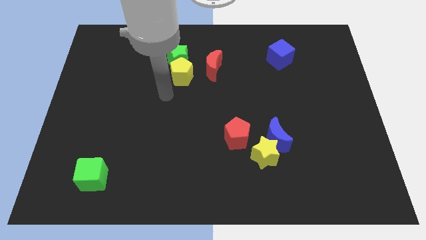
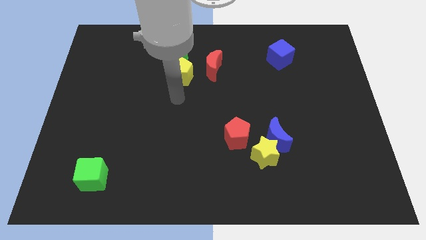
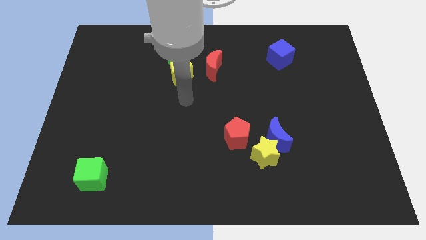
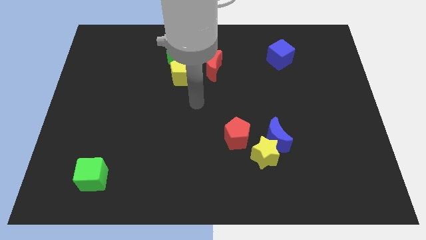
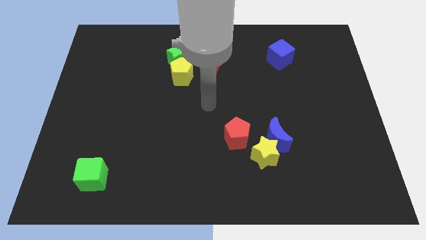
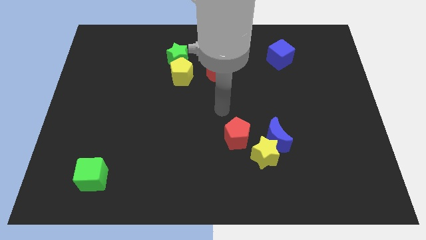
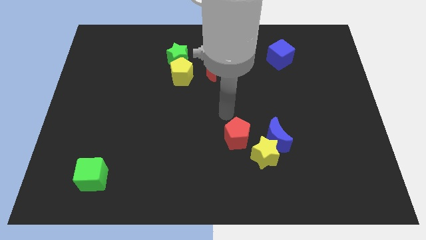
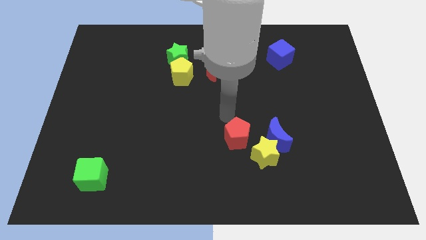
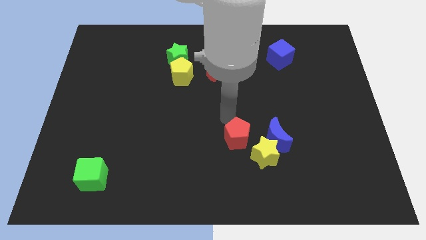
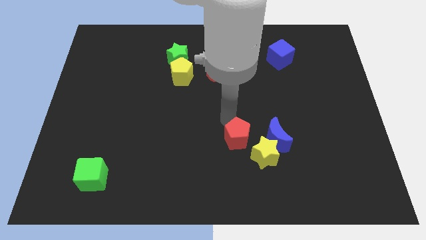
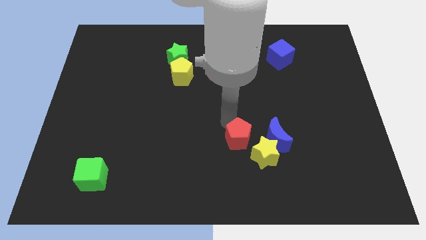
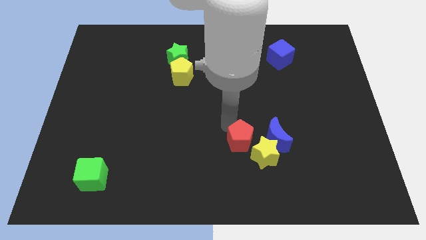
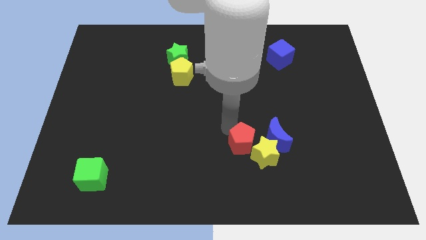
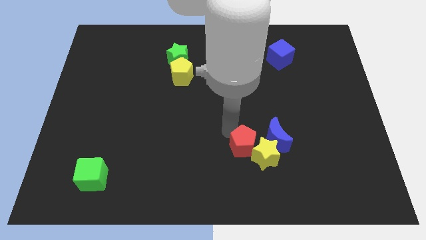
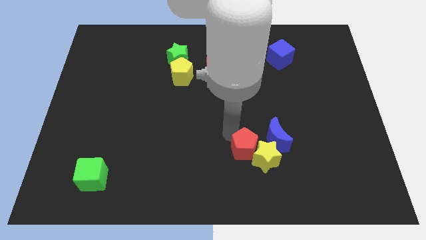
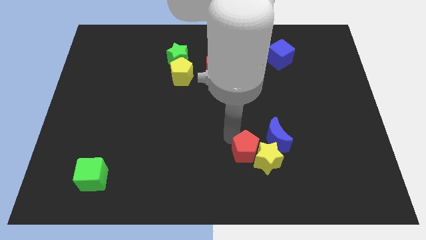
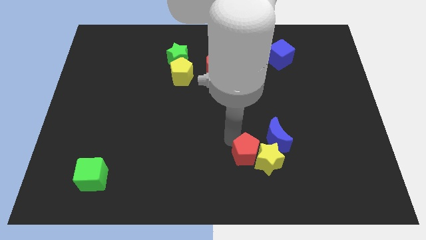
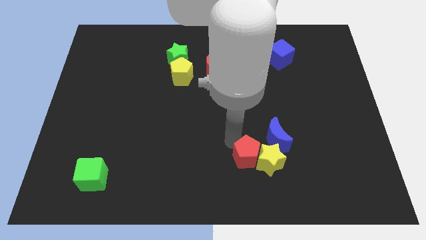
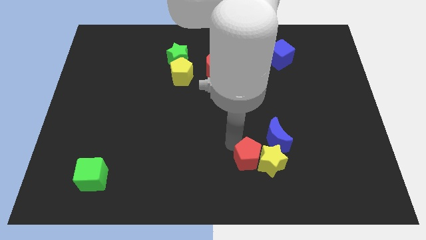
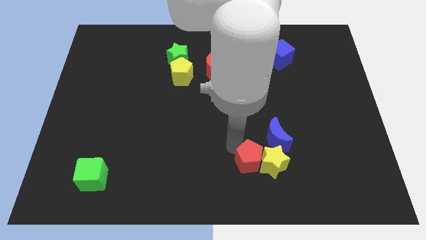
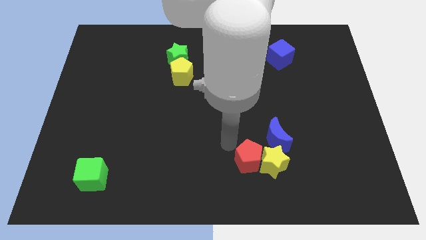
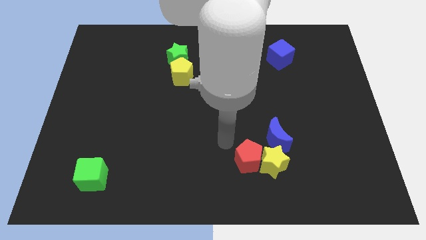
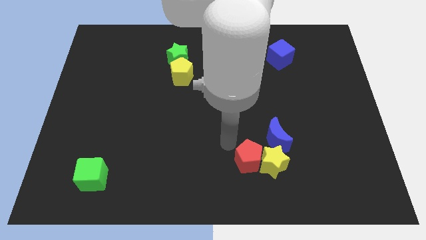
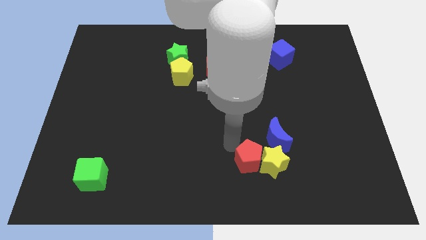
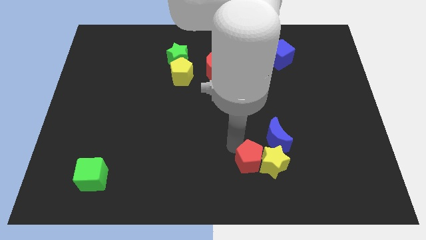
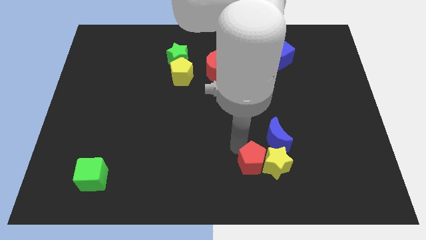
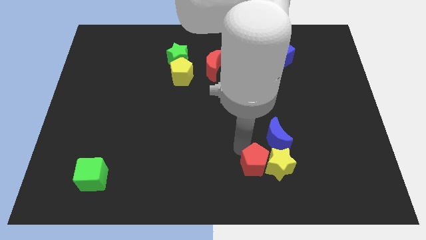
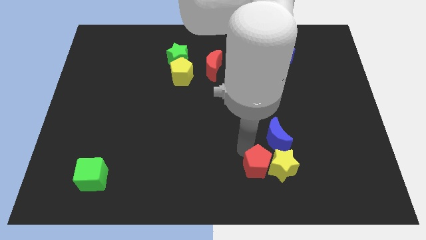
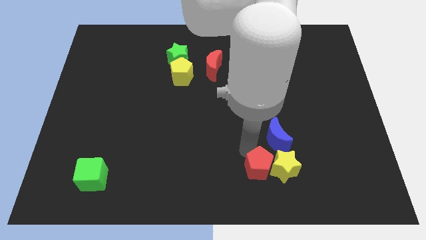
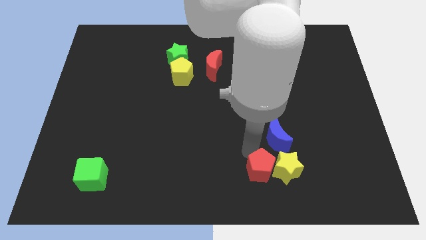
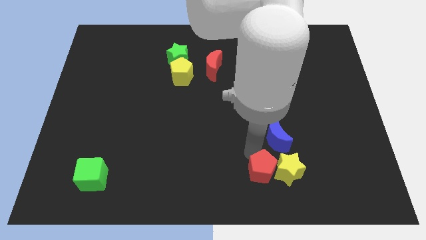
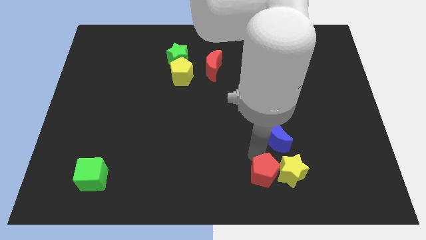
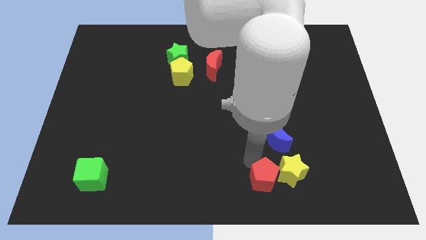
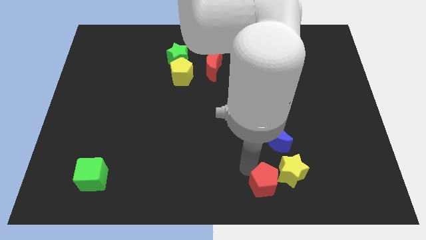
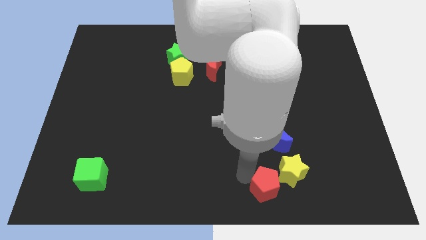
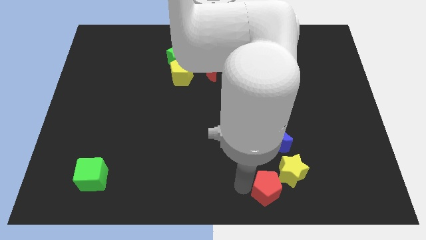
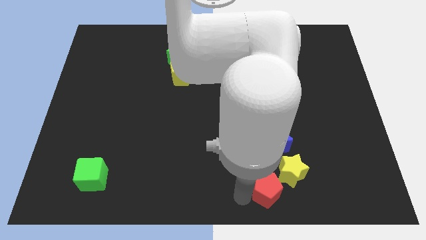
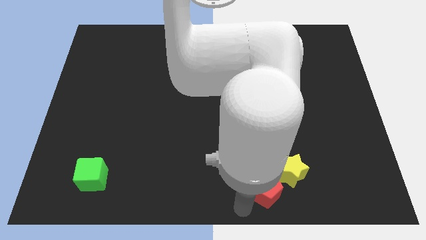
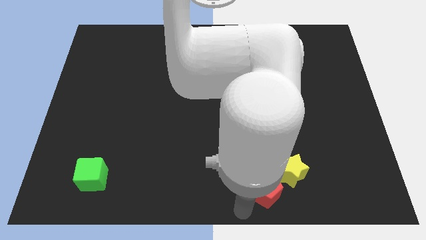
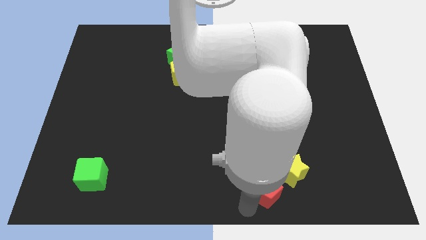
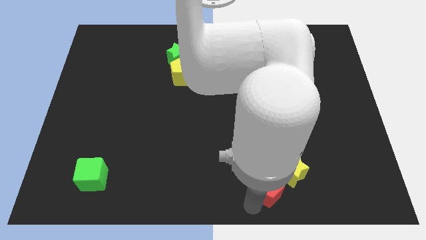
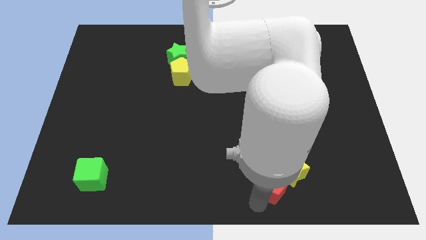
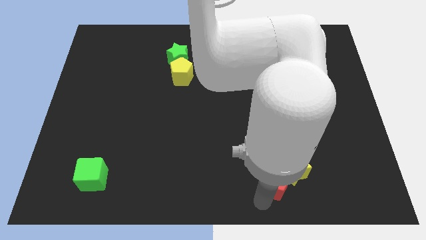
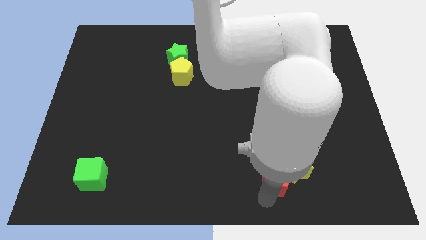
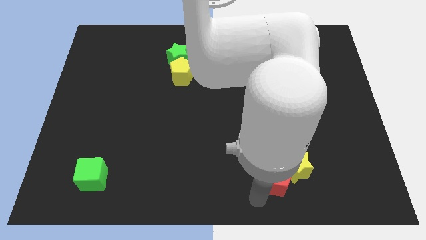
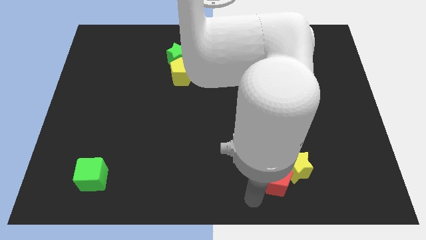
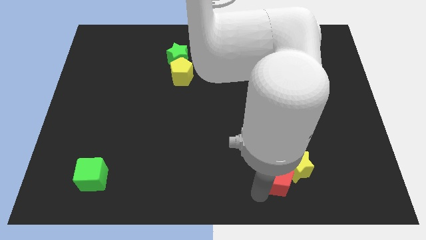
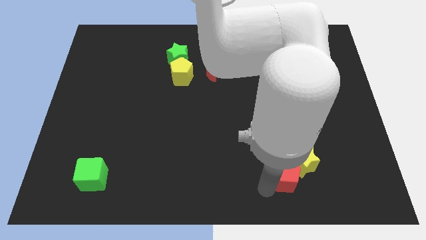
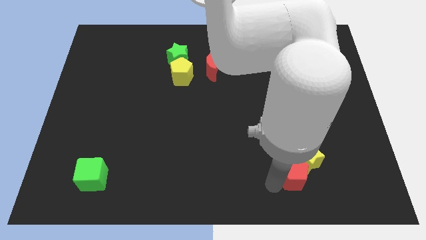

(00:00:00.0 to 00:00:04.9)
push the red pentagon diagonally down and to the right of the blue moon

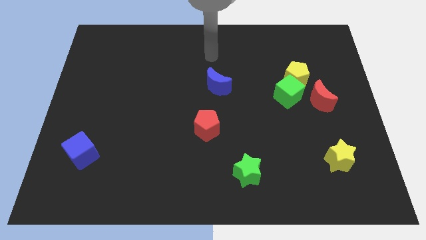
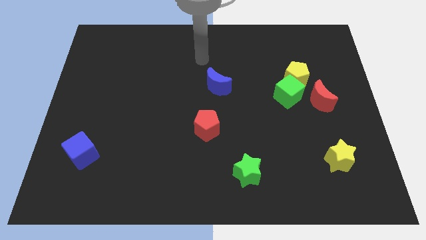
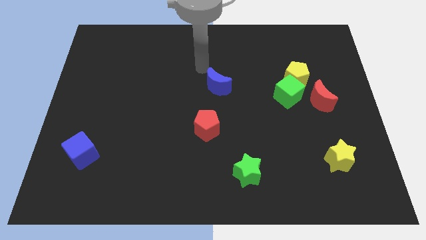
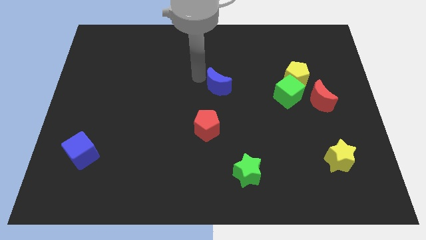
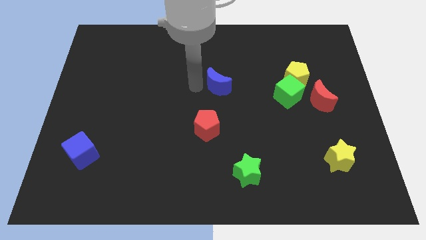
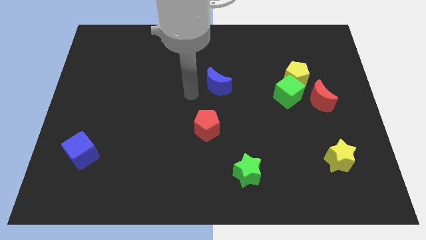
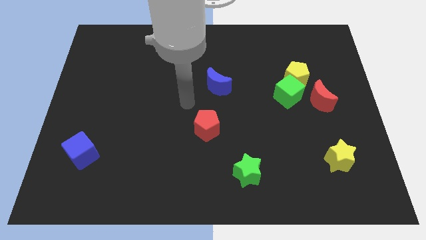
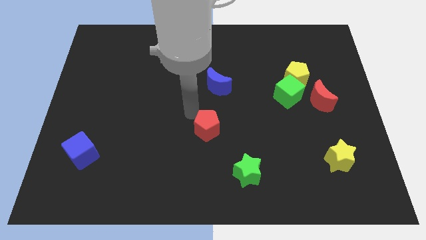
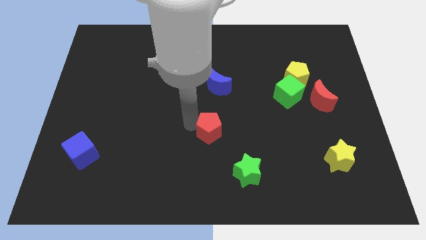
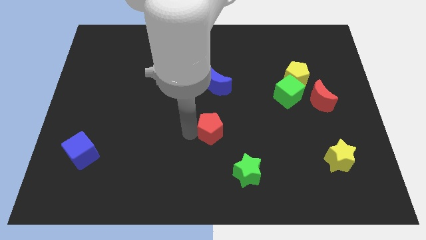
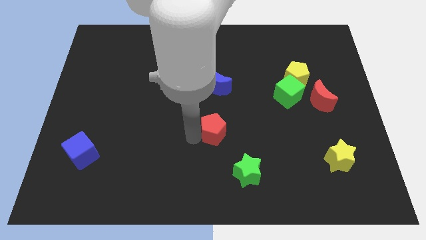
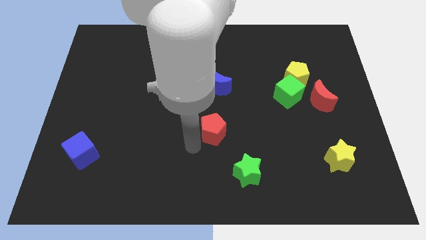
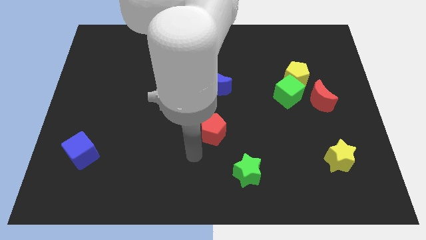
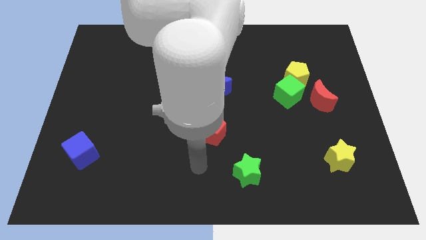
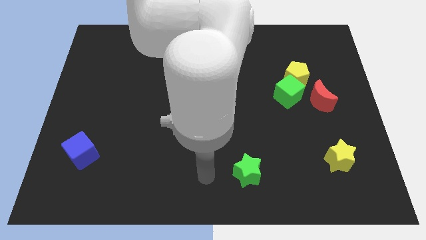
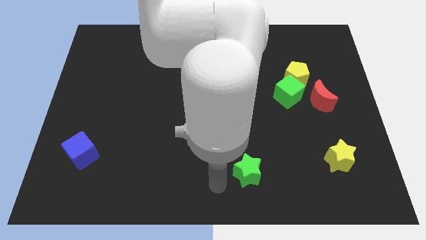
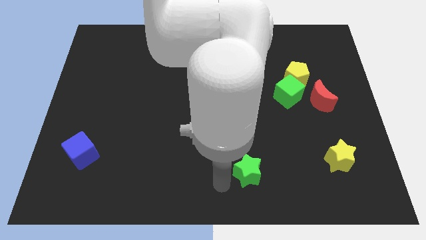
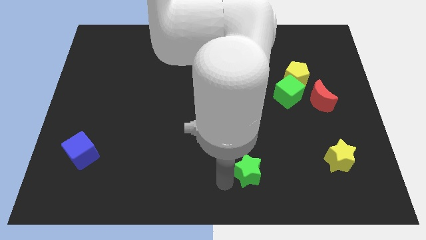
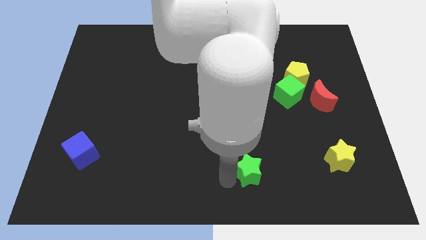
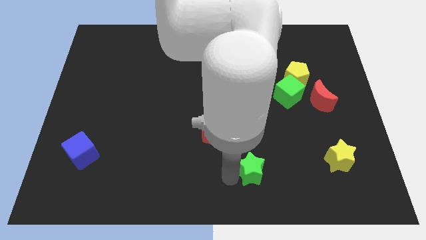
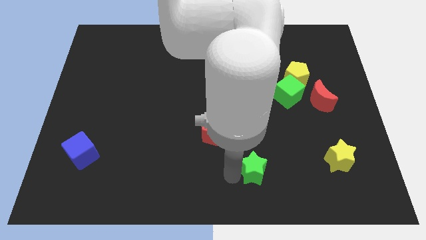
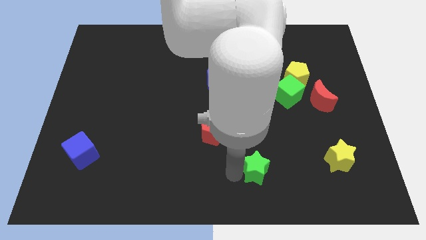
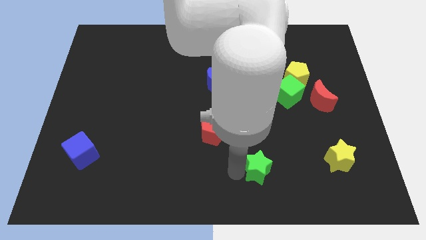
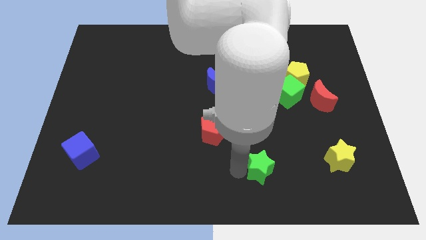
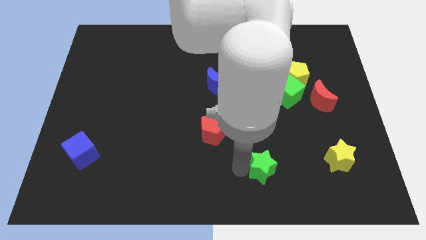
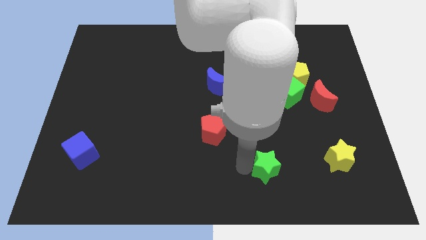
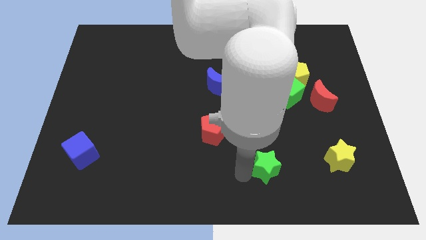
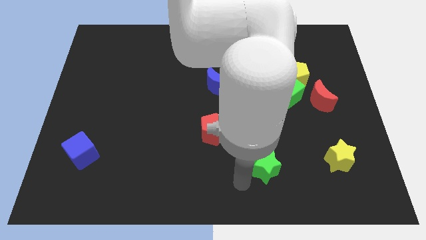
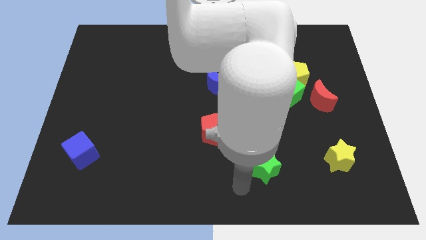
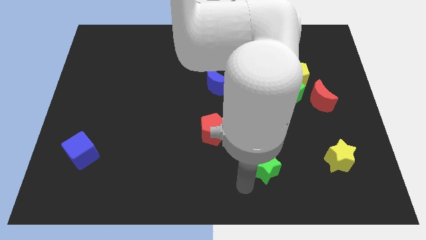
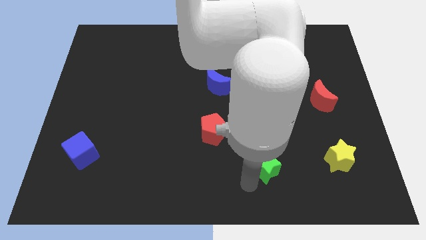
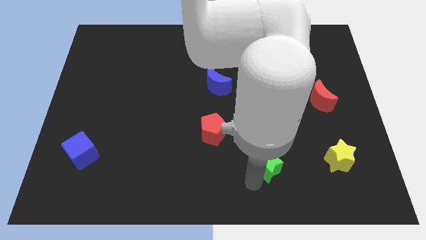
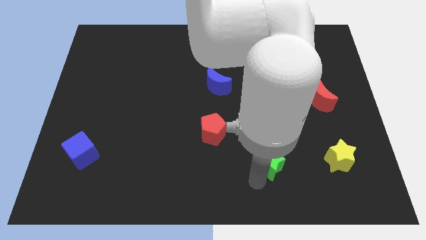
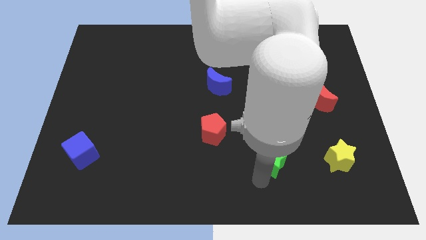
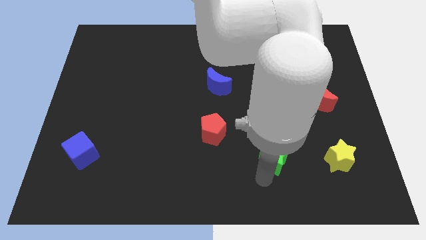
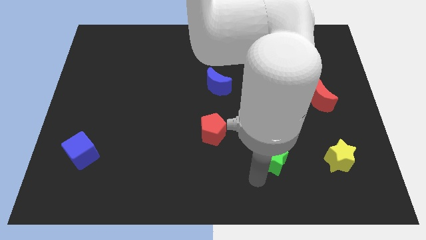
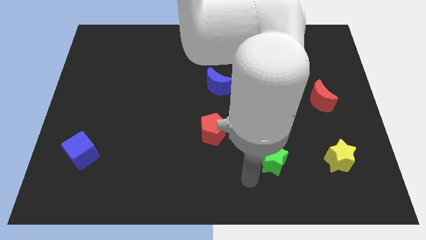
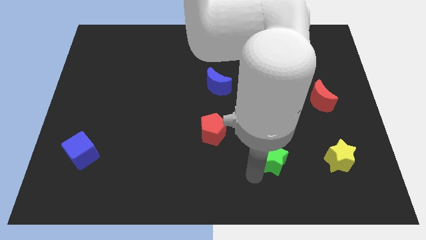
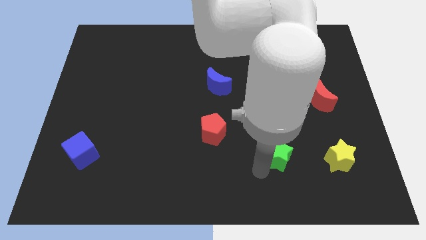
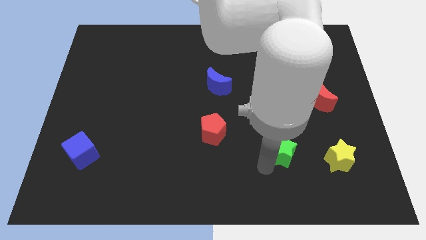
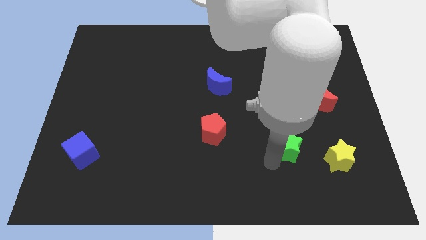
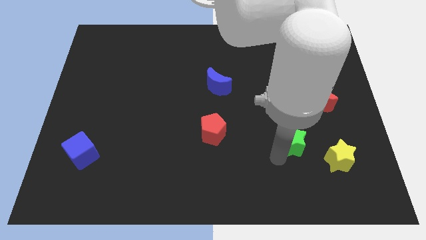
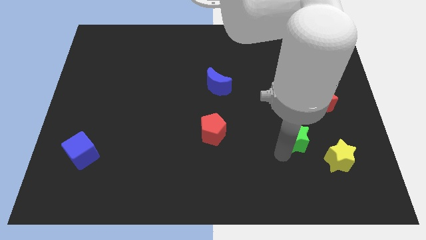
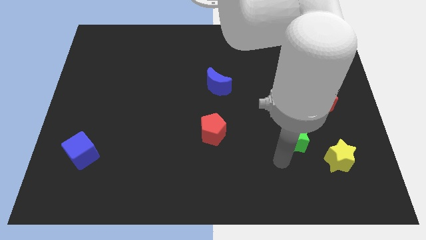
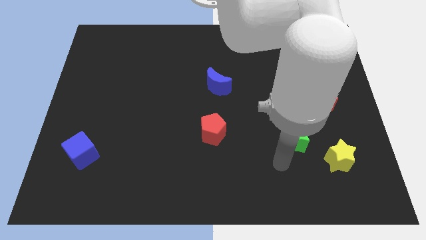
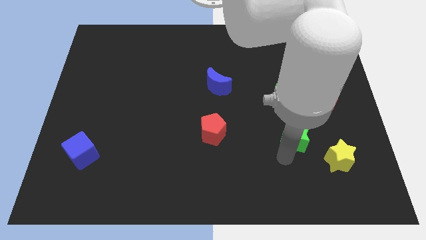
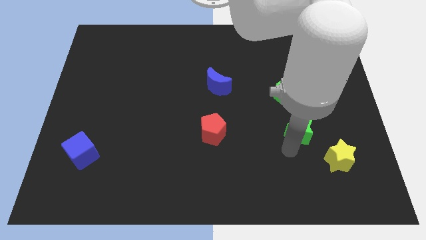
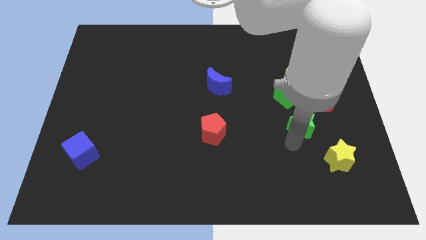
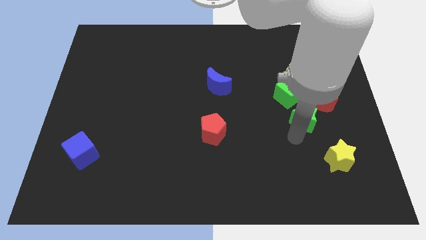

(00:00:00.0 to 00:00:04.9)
put the green star to the bottom right of the green cube
